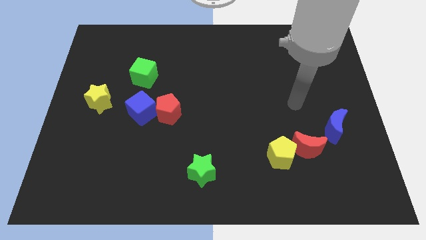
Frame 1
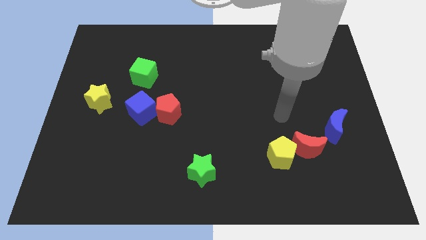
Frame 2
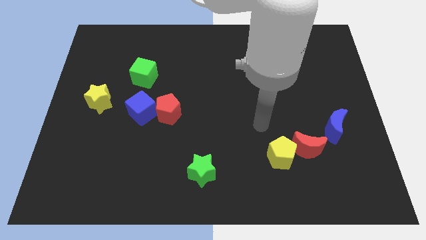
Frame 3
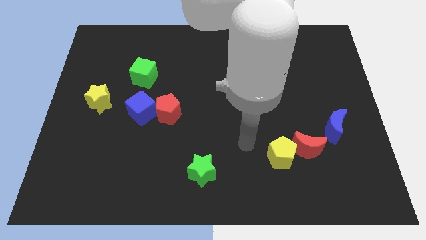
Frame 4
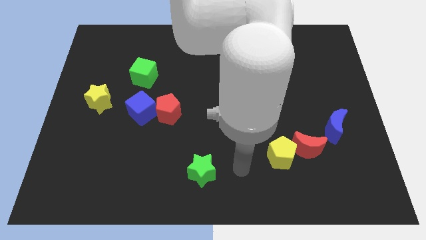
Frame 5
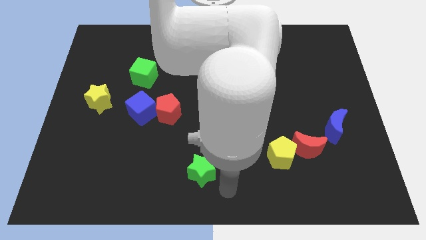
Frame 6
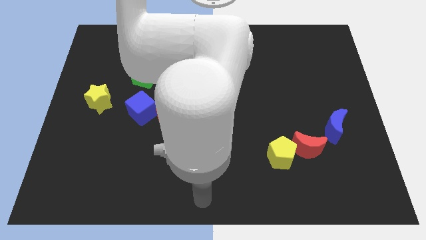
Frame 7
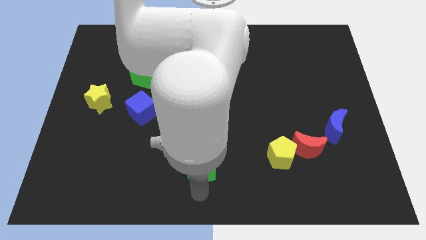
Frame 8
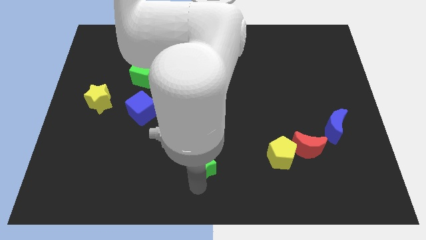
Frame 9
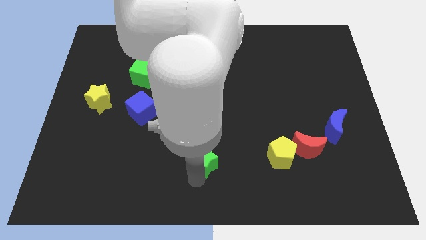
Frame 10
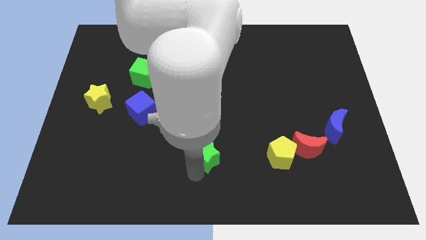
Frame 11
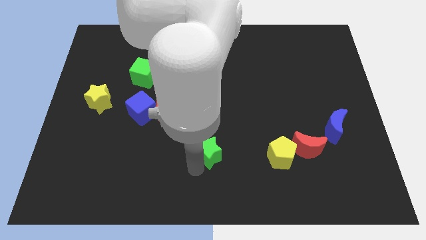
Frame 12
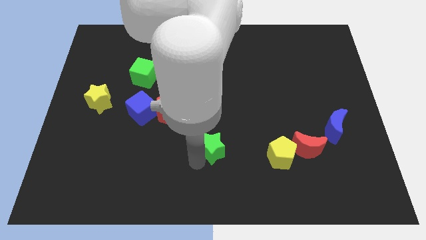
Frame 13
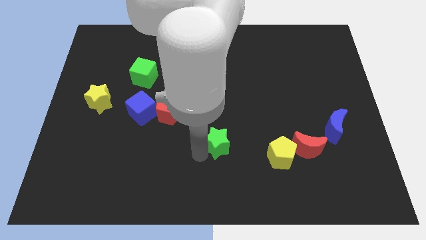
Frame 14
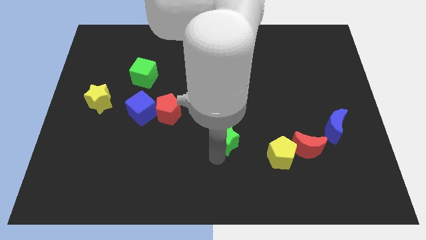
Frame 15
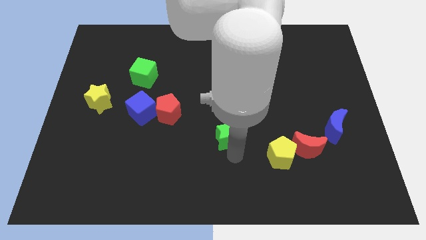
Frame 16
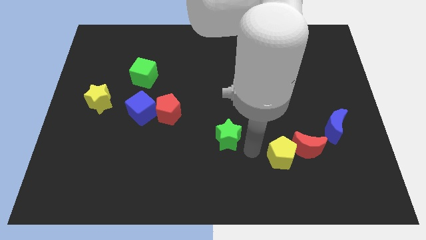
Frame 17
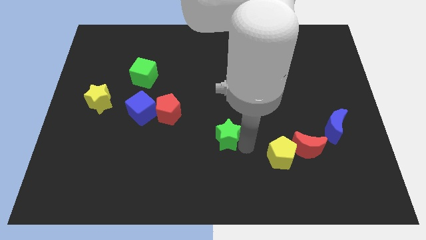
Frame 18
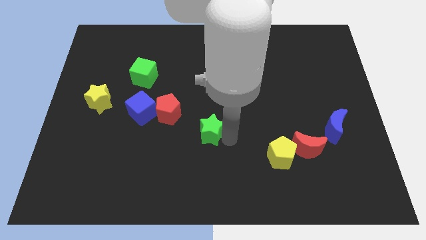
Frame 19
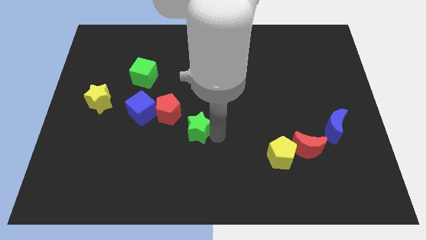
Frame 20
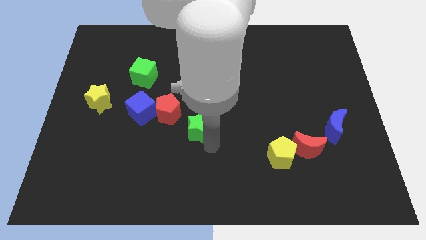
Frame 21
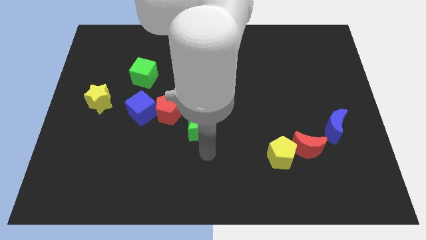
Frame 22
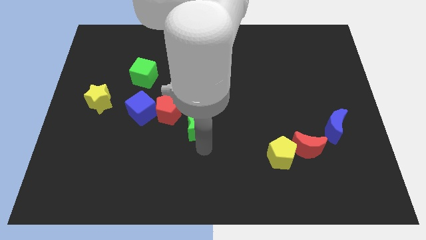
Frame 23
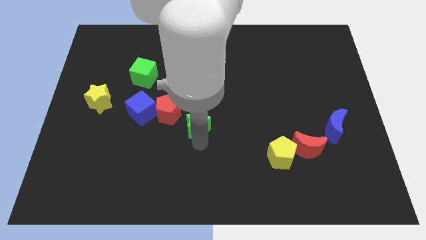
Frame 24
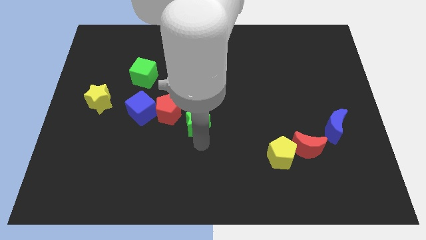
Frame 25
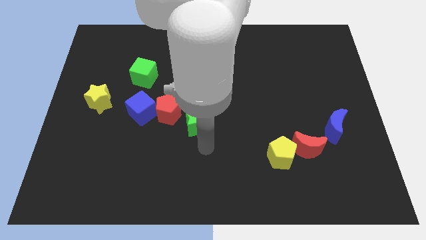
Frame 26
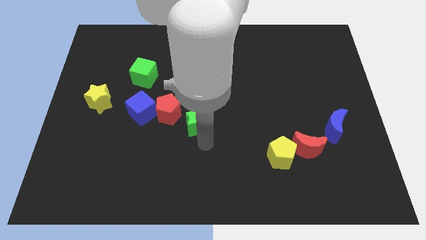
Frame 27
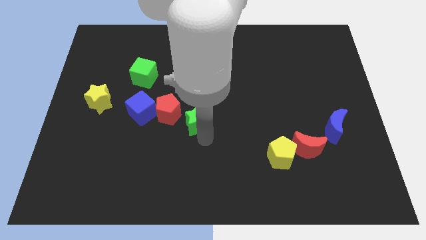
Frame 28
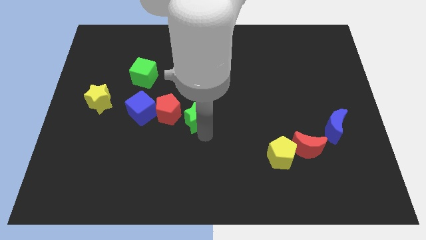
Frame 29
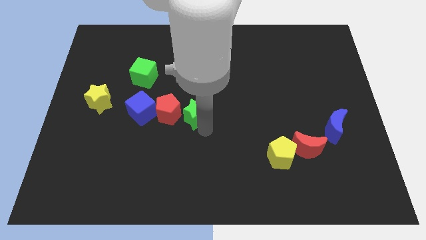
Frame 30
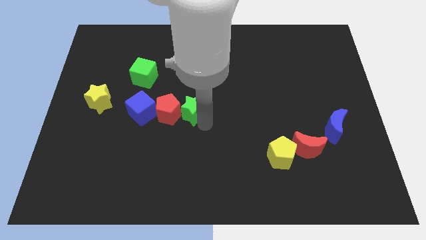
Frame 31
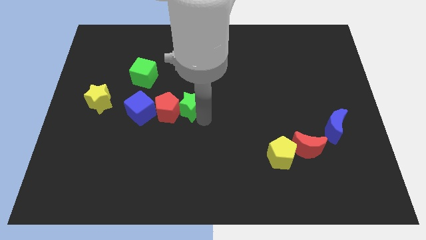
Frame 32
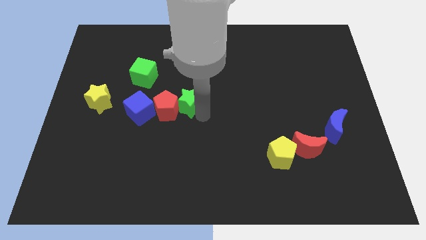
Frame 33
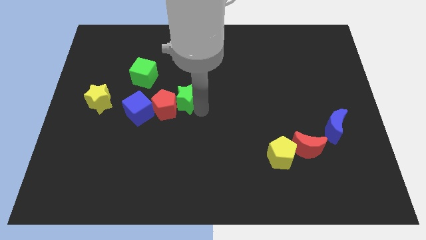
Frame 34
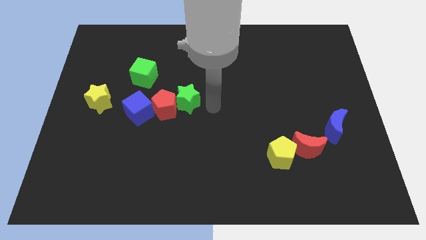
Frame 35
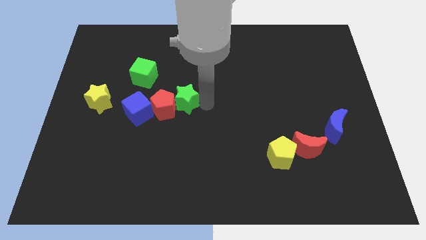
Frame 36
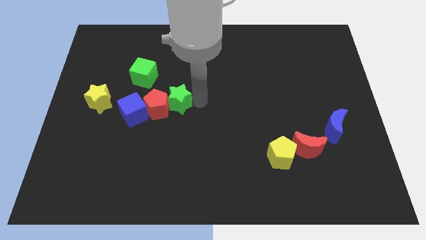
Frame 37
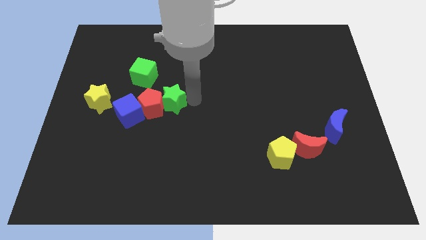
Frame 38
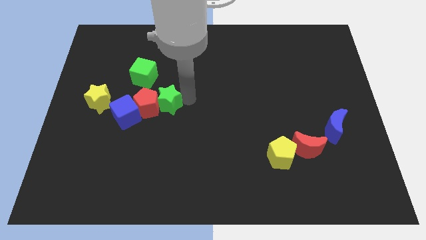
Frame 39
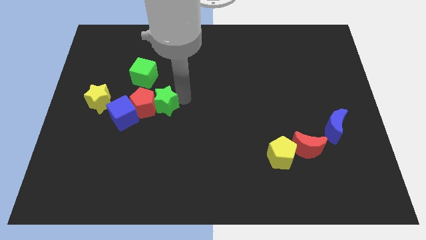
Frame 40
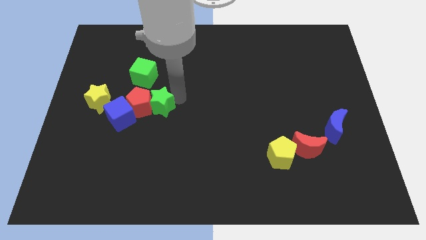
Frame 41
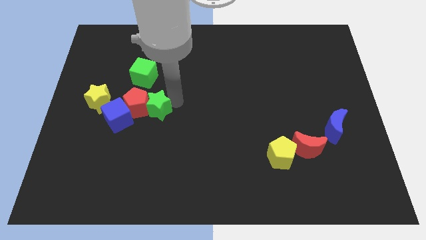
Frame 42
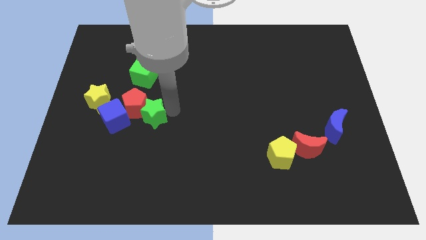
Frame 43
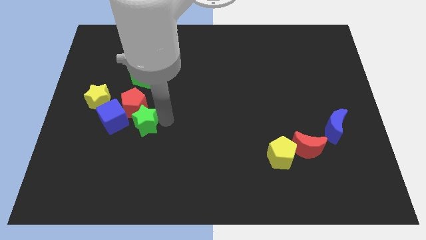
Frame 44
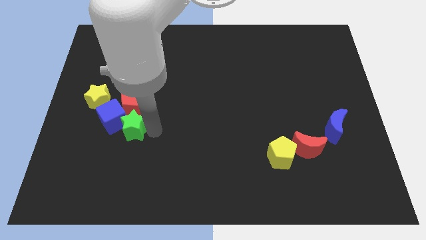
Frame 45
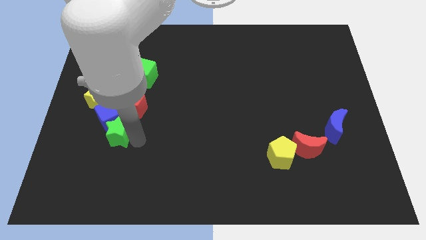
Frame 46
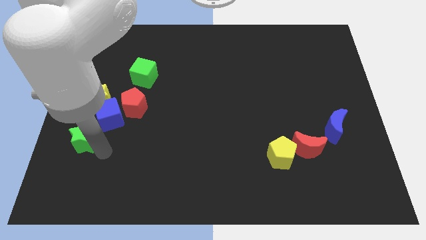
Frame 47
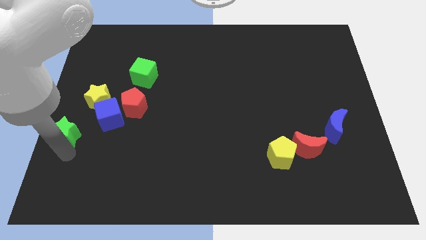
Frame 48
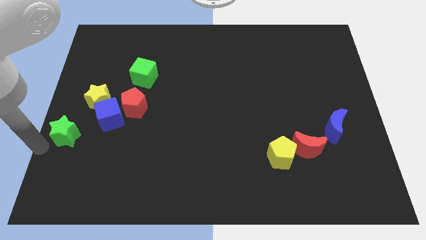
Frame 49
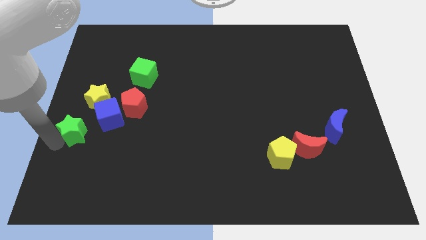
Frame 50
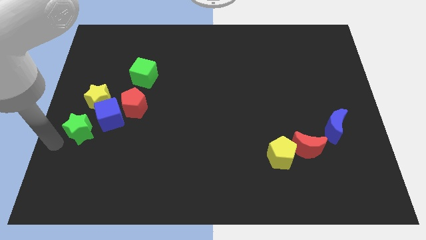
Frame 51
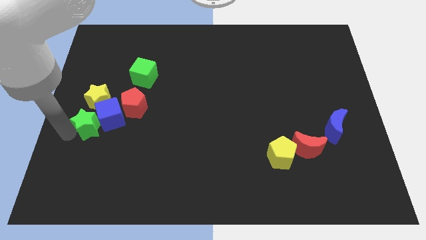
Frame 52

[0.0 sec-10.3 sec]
slide the green star diagonally upwards and left

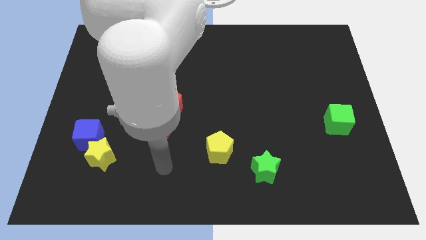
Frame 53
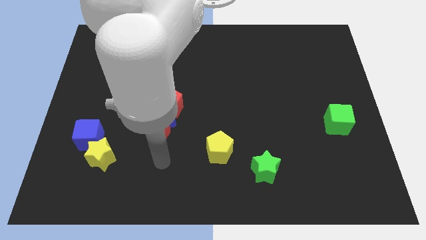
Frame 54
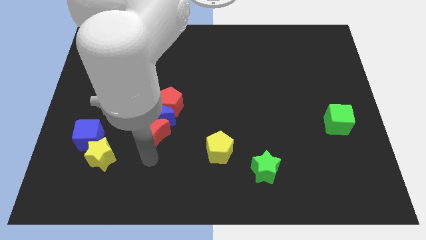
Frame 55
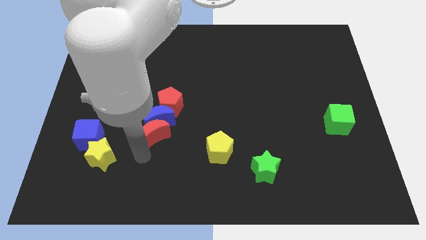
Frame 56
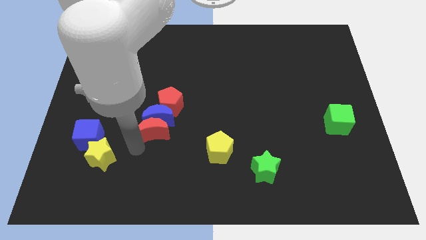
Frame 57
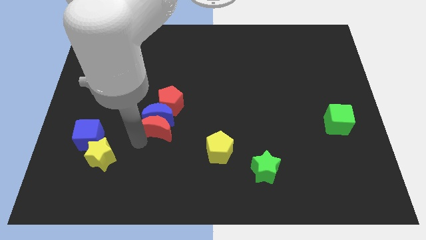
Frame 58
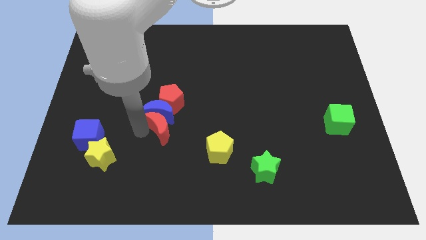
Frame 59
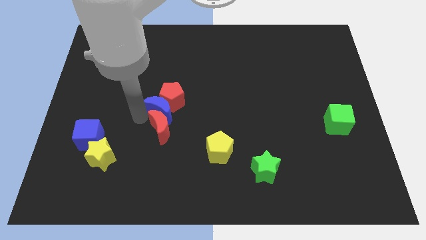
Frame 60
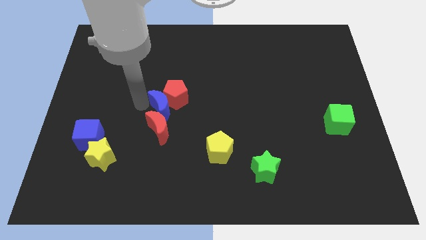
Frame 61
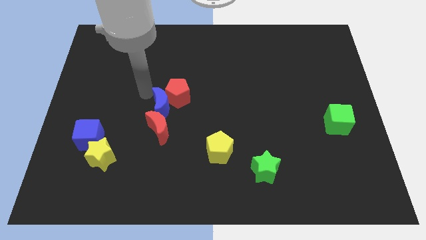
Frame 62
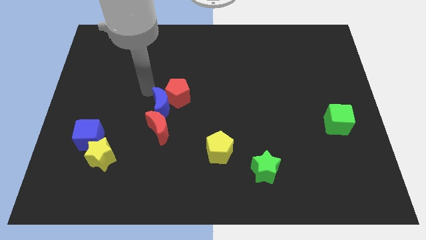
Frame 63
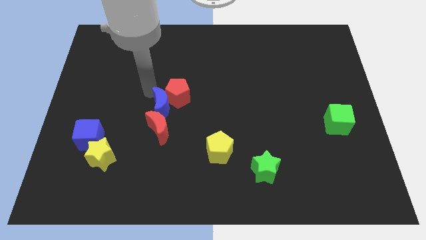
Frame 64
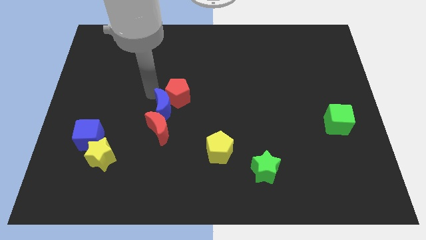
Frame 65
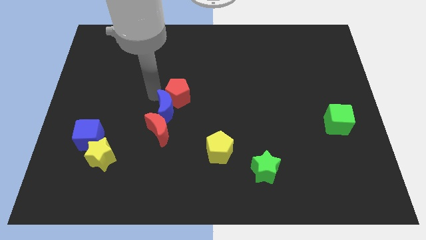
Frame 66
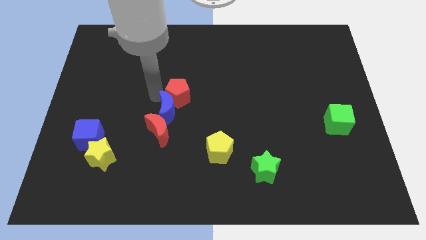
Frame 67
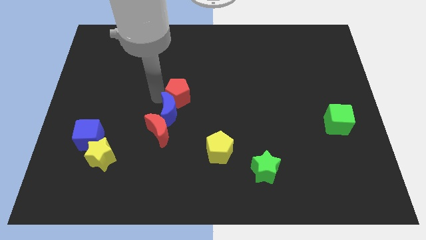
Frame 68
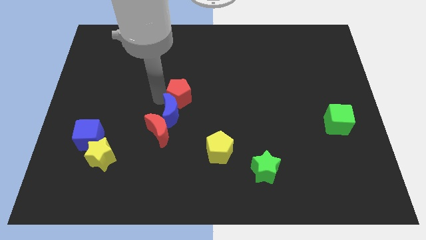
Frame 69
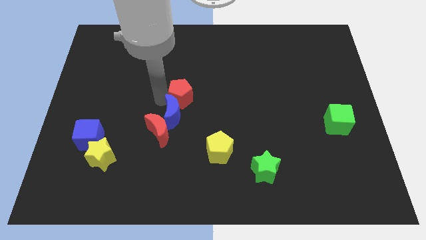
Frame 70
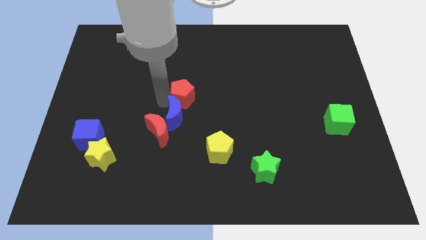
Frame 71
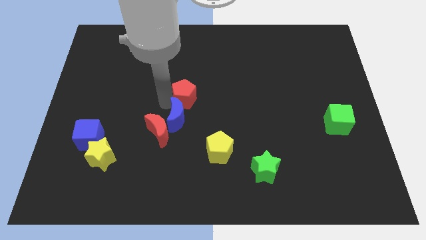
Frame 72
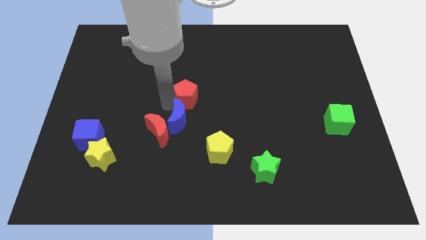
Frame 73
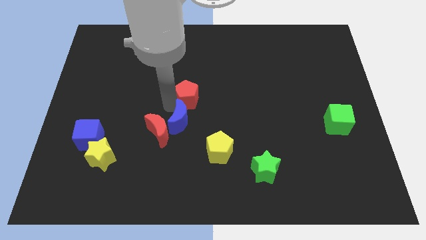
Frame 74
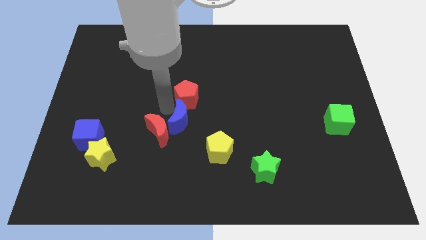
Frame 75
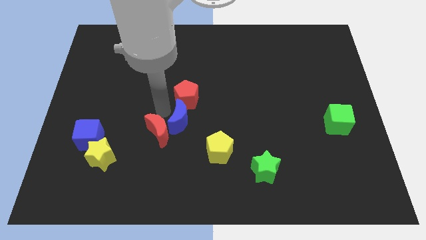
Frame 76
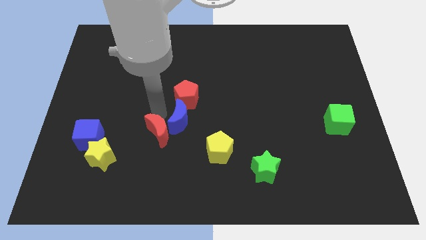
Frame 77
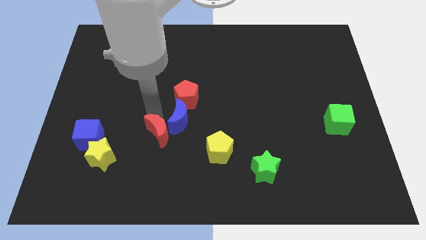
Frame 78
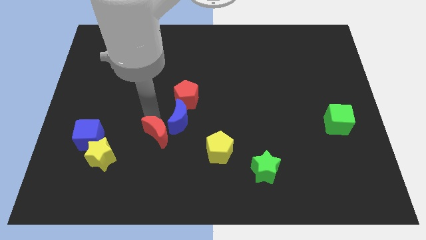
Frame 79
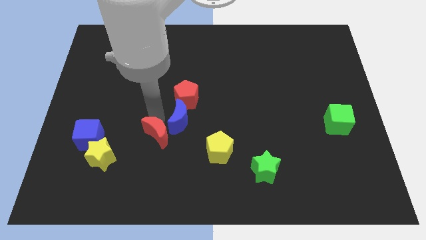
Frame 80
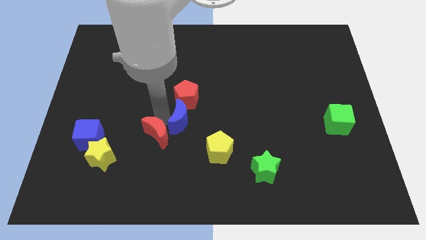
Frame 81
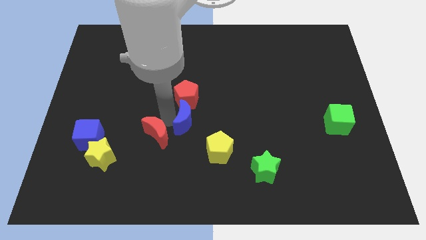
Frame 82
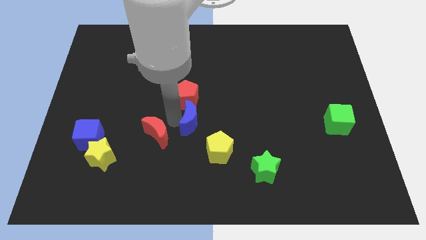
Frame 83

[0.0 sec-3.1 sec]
slide the blue moon to the right a bit
